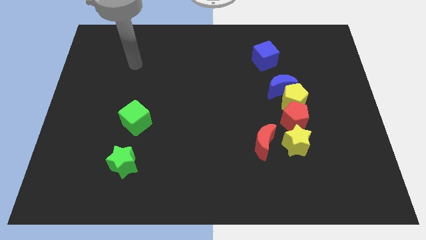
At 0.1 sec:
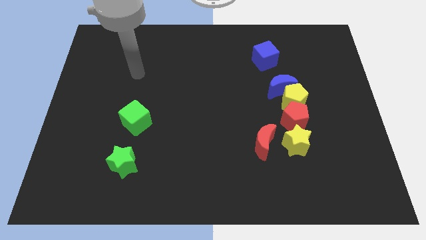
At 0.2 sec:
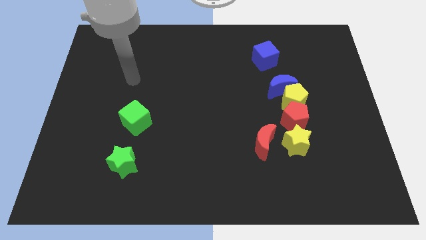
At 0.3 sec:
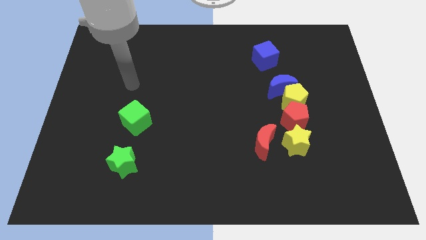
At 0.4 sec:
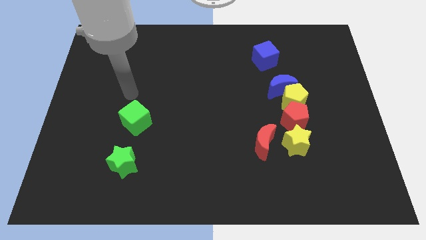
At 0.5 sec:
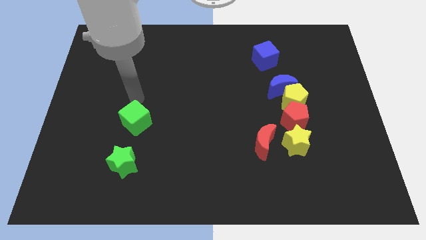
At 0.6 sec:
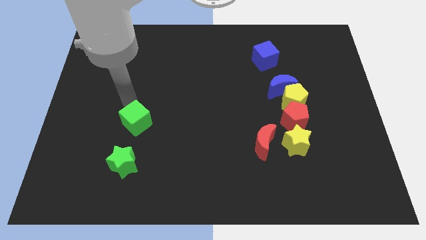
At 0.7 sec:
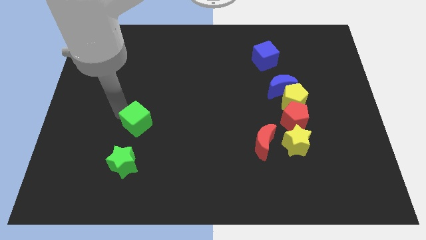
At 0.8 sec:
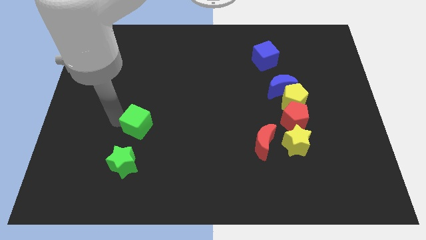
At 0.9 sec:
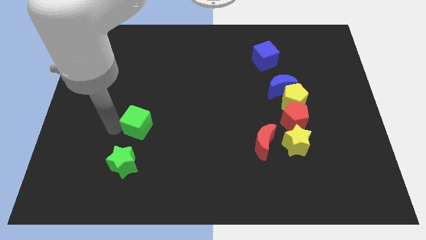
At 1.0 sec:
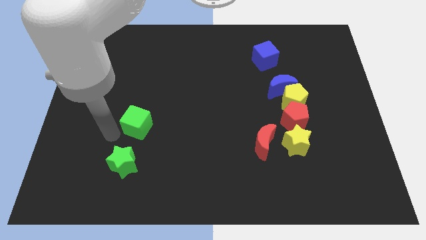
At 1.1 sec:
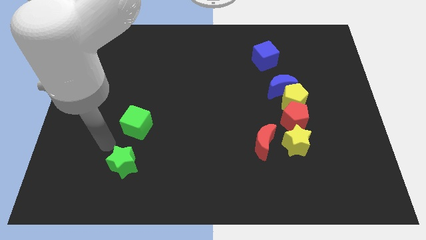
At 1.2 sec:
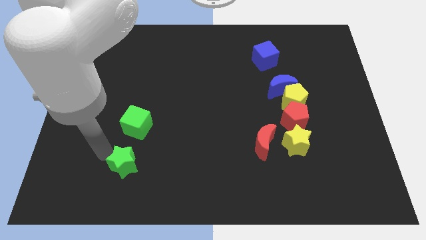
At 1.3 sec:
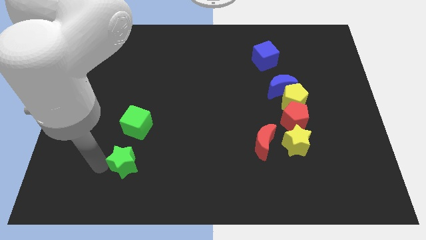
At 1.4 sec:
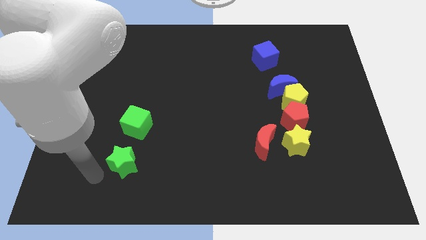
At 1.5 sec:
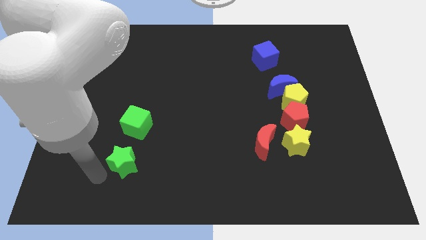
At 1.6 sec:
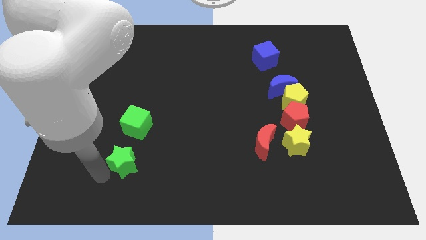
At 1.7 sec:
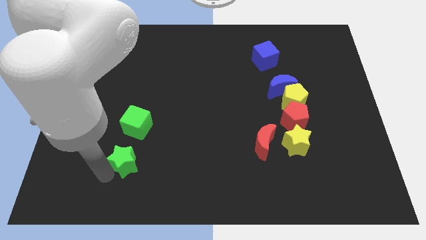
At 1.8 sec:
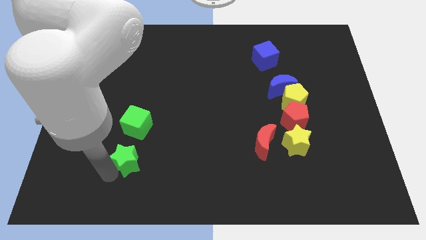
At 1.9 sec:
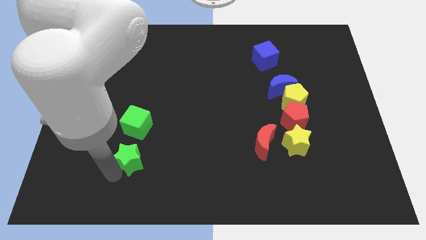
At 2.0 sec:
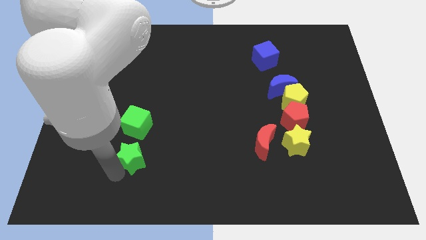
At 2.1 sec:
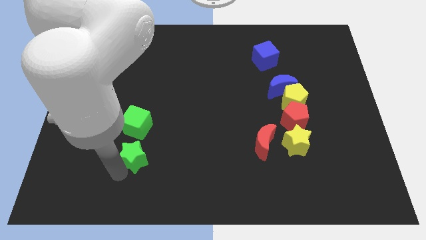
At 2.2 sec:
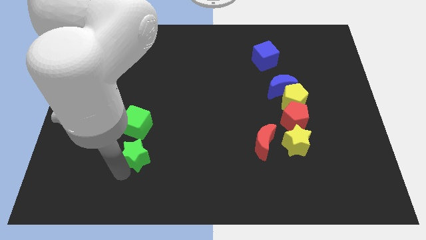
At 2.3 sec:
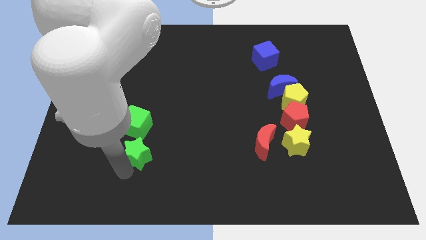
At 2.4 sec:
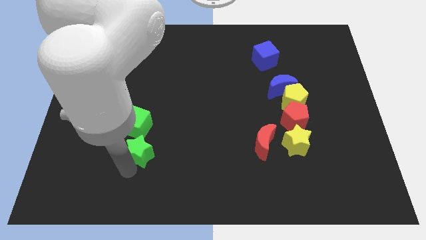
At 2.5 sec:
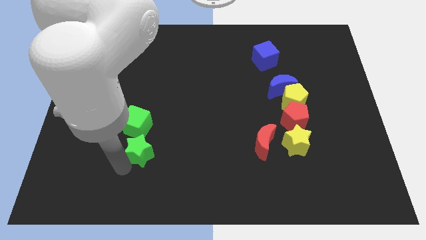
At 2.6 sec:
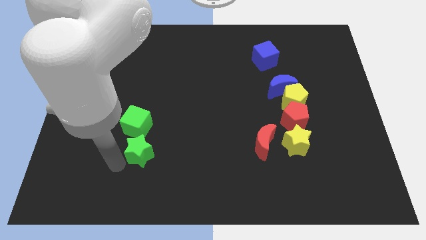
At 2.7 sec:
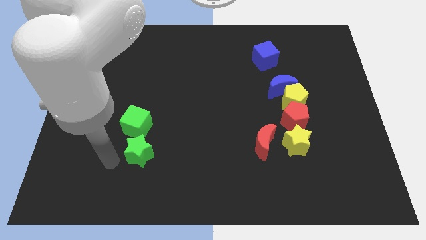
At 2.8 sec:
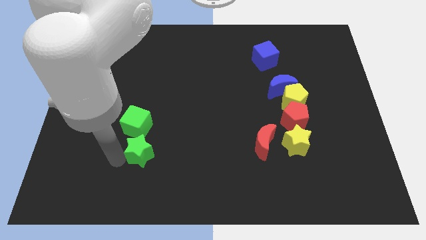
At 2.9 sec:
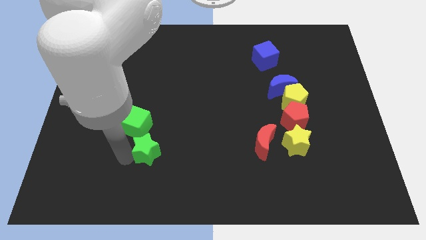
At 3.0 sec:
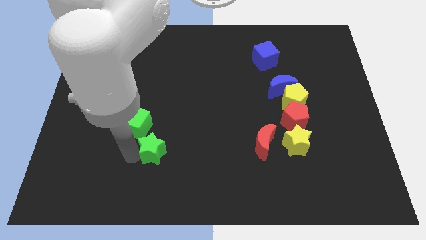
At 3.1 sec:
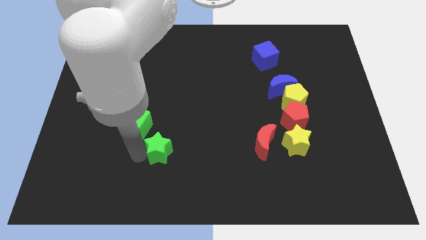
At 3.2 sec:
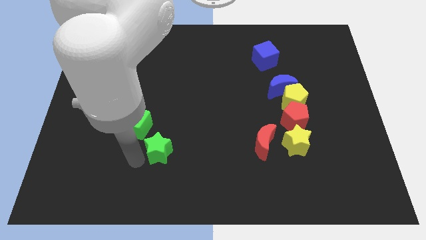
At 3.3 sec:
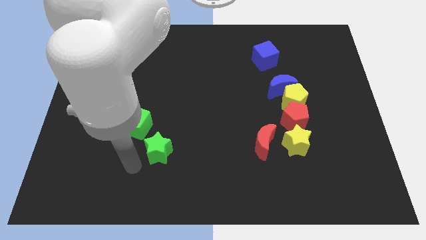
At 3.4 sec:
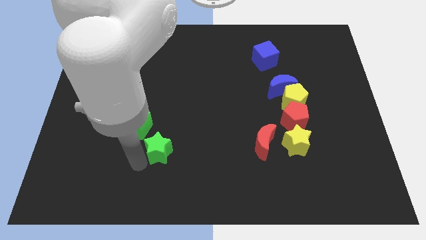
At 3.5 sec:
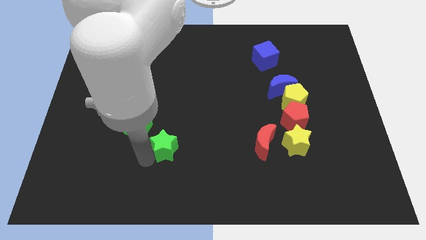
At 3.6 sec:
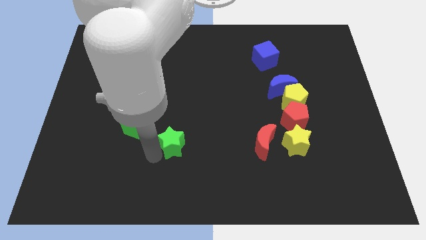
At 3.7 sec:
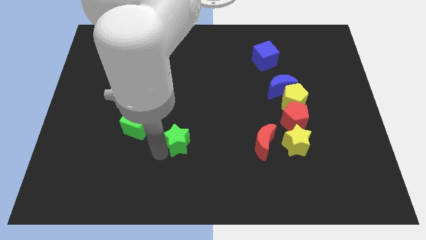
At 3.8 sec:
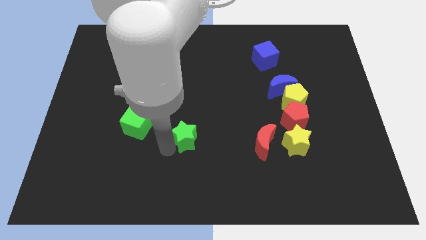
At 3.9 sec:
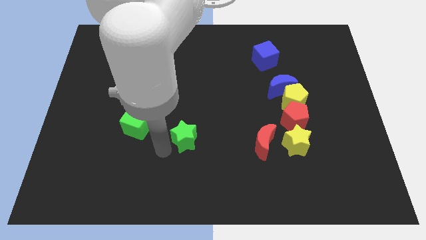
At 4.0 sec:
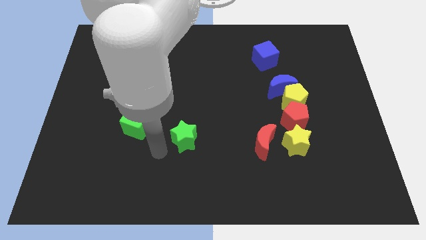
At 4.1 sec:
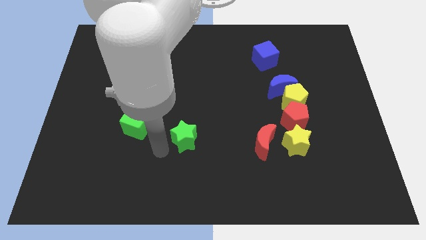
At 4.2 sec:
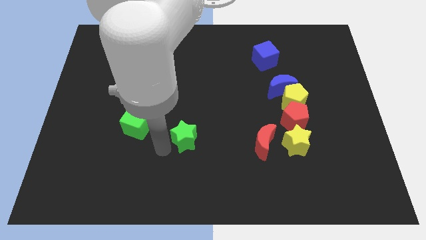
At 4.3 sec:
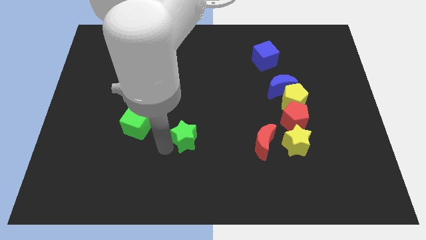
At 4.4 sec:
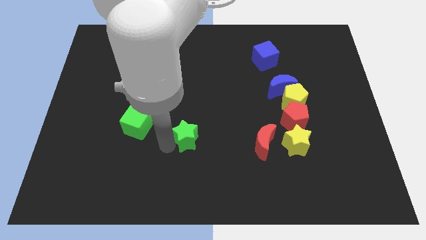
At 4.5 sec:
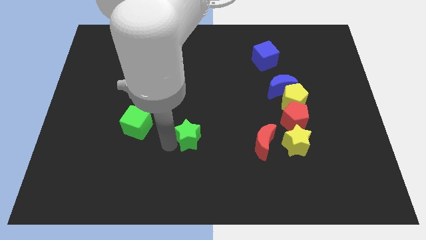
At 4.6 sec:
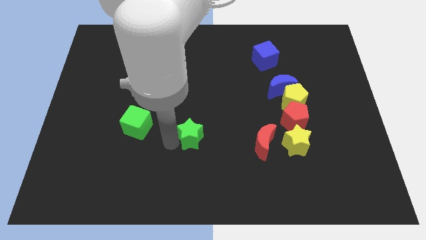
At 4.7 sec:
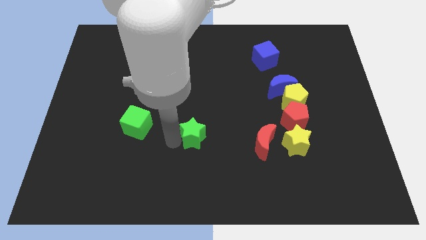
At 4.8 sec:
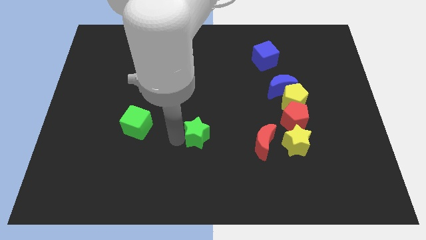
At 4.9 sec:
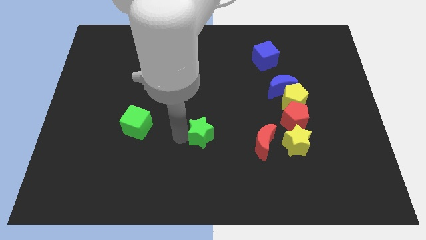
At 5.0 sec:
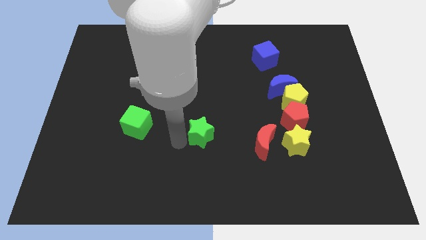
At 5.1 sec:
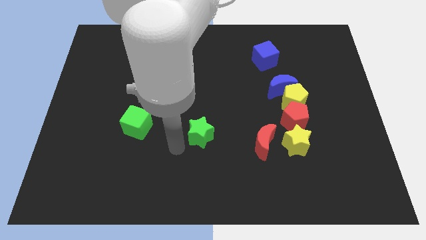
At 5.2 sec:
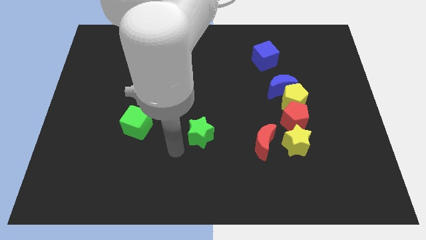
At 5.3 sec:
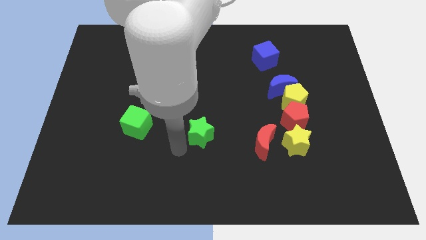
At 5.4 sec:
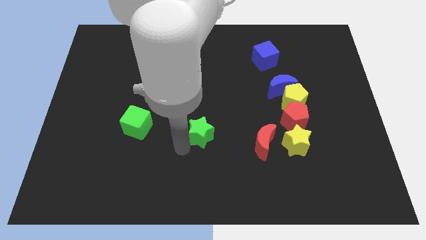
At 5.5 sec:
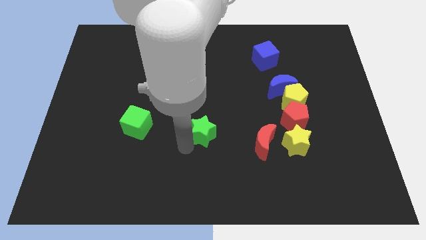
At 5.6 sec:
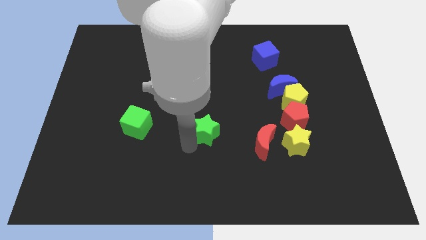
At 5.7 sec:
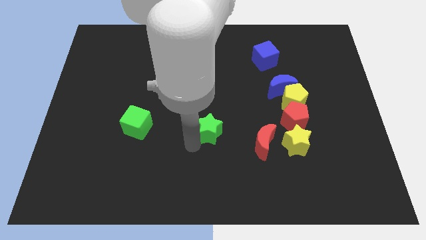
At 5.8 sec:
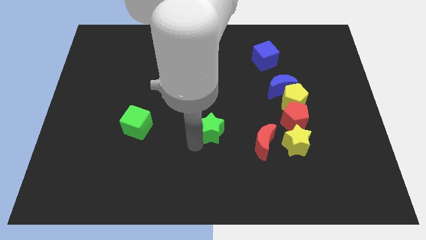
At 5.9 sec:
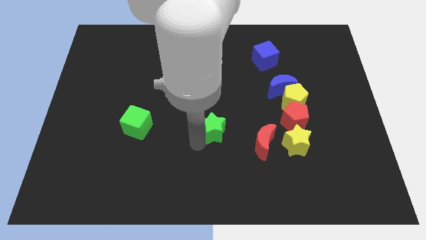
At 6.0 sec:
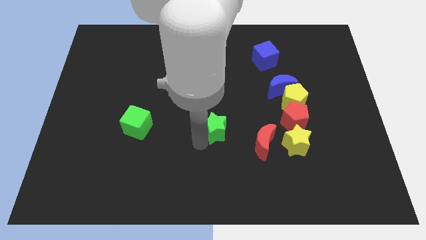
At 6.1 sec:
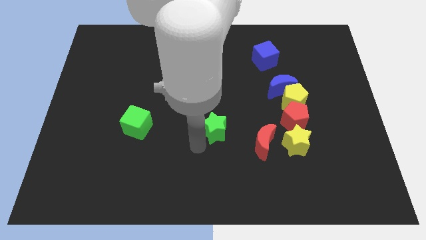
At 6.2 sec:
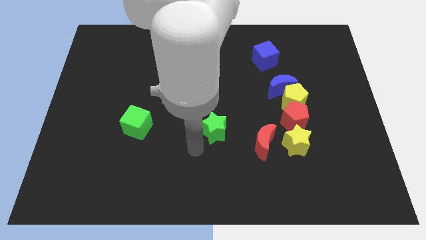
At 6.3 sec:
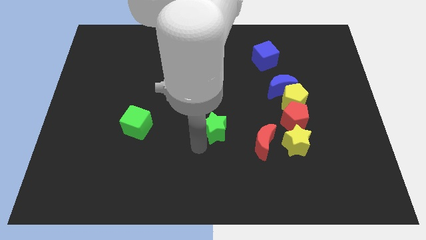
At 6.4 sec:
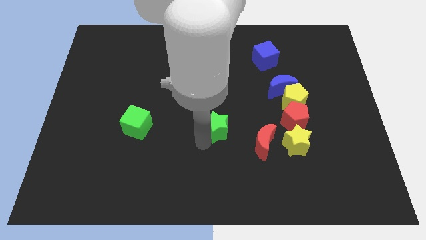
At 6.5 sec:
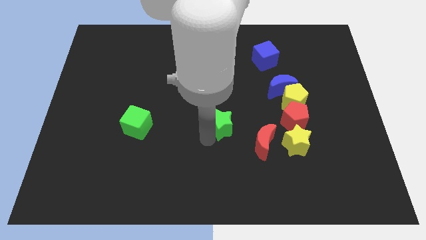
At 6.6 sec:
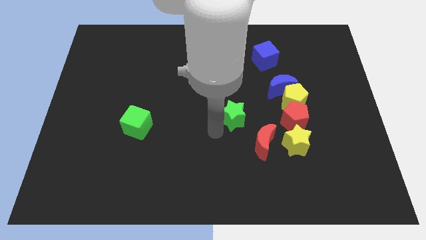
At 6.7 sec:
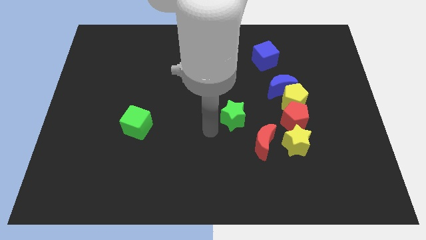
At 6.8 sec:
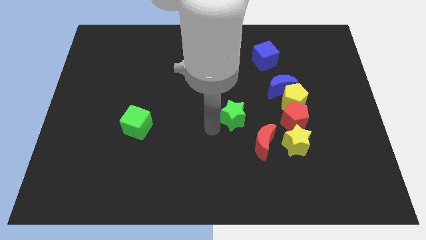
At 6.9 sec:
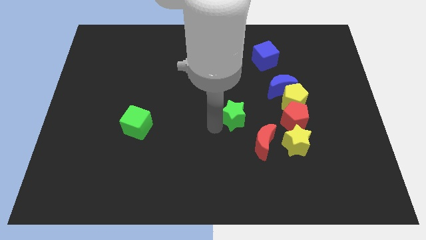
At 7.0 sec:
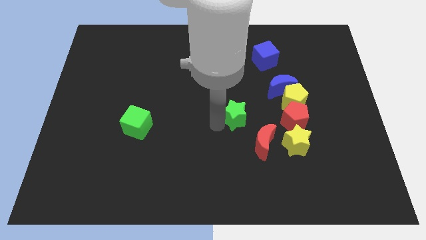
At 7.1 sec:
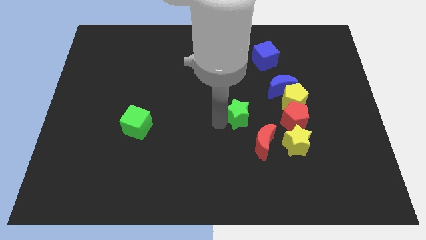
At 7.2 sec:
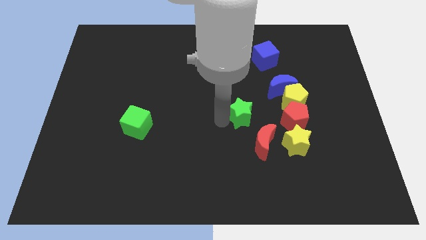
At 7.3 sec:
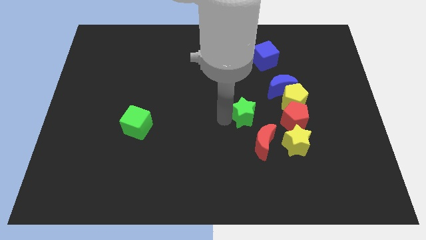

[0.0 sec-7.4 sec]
move the green star to the bottom left side of the blue moon
